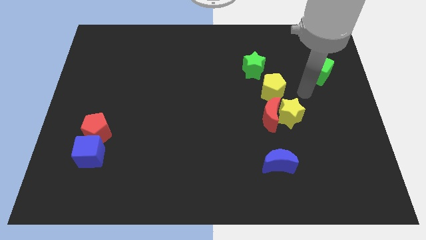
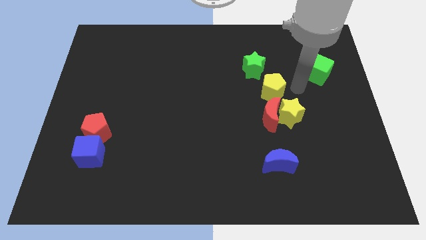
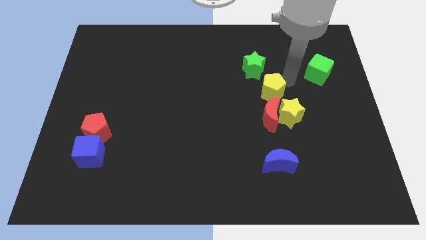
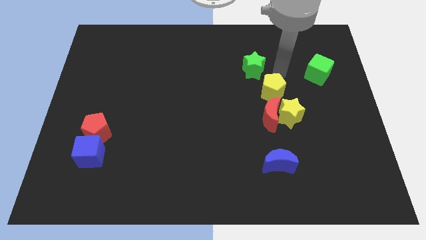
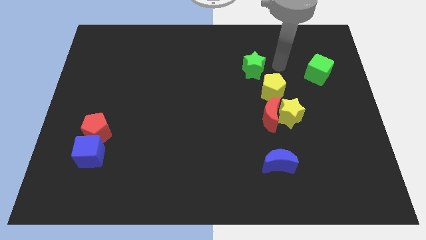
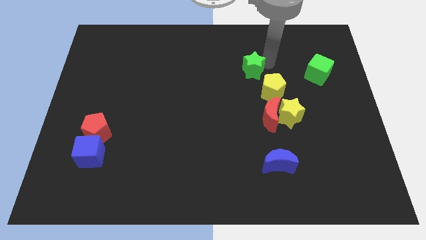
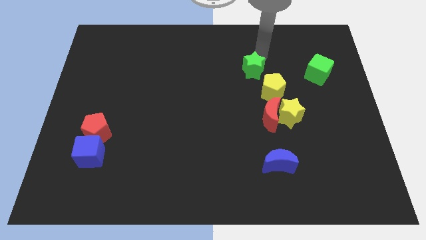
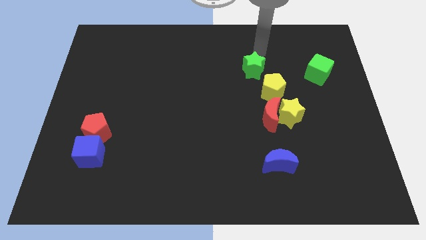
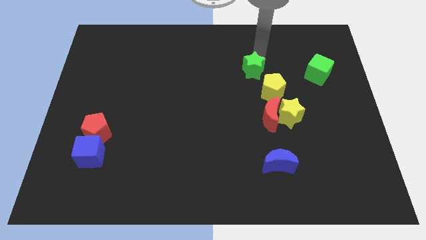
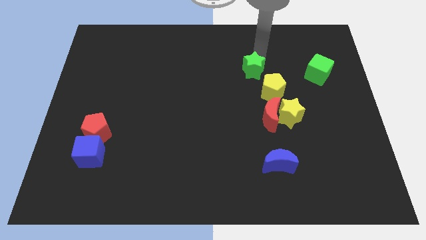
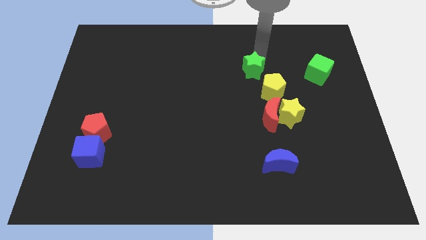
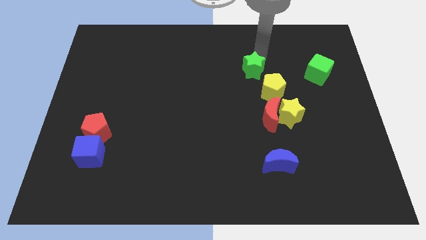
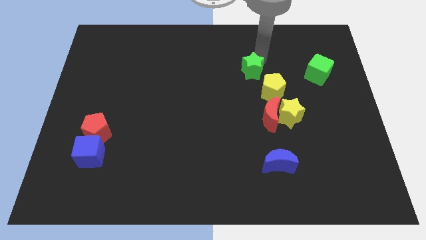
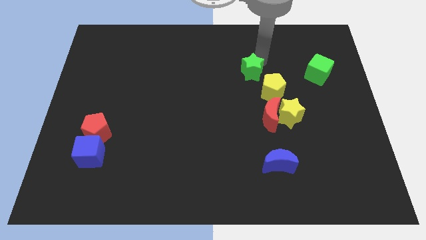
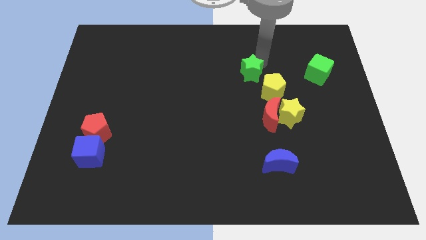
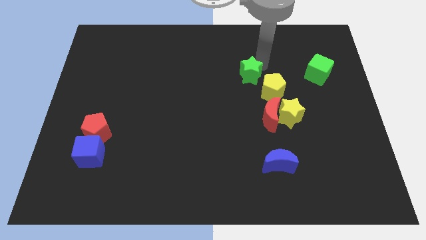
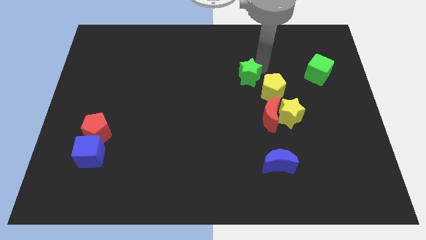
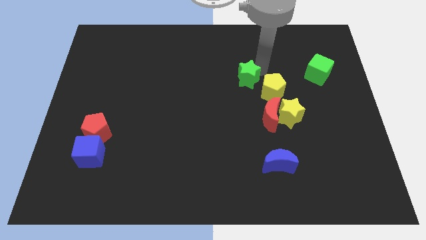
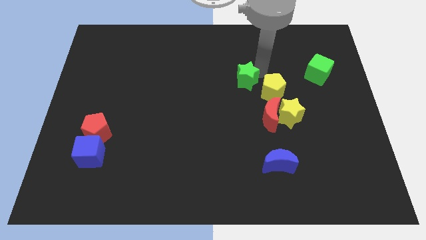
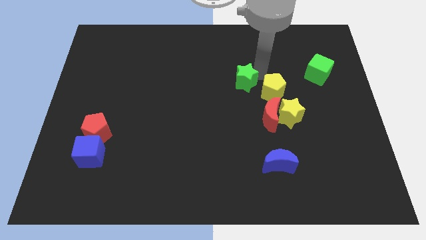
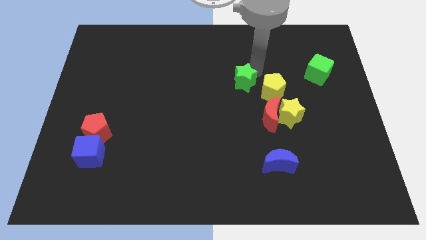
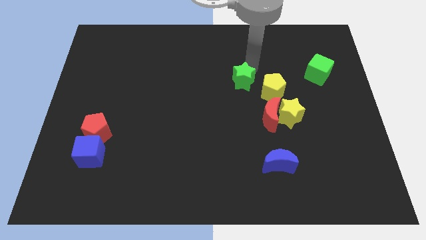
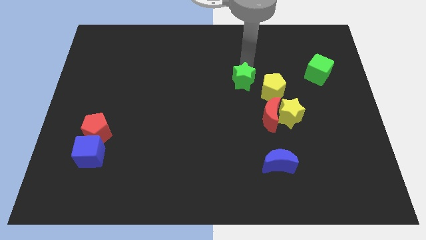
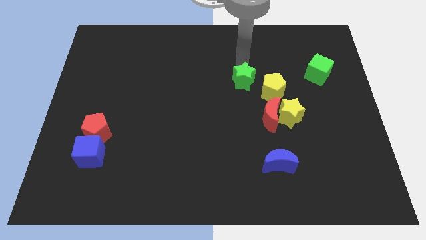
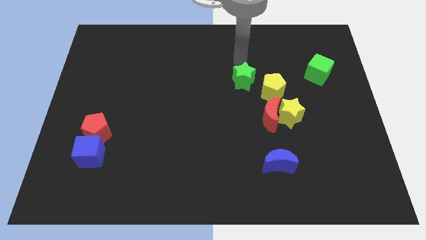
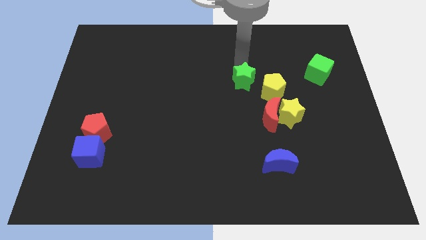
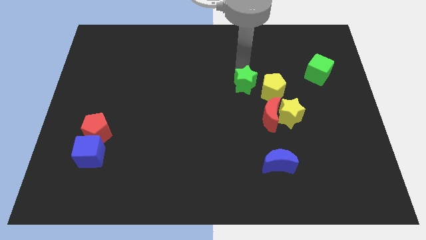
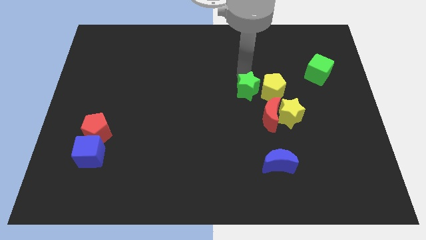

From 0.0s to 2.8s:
move the green star somewhat downwards

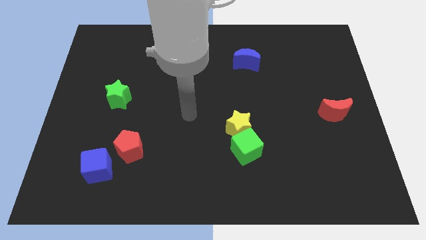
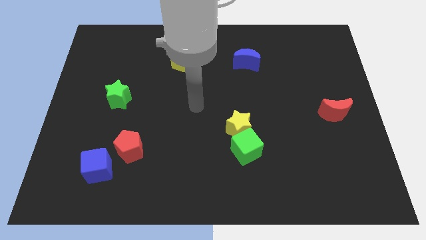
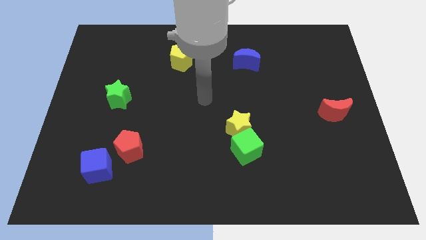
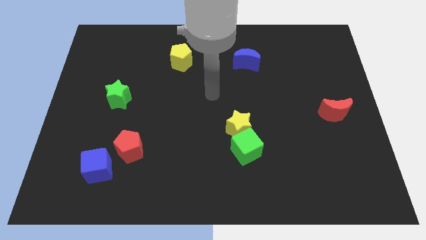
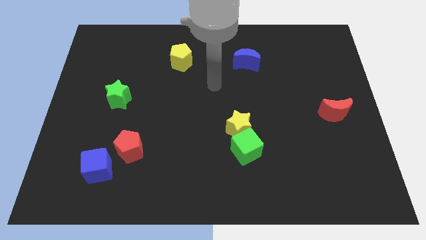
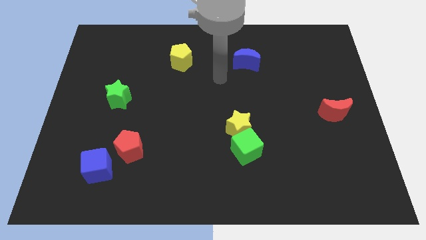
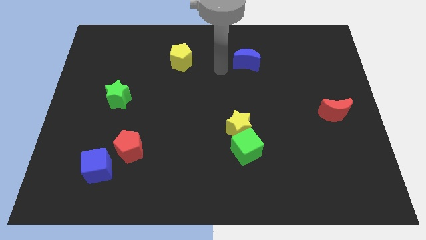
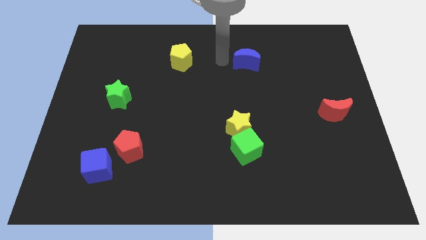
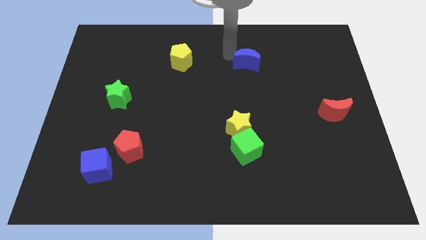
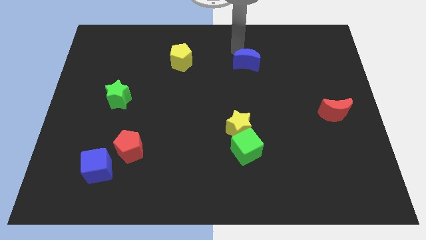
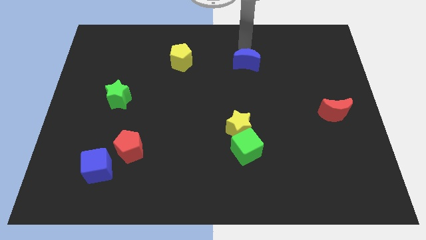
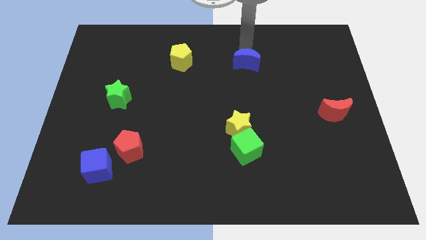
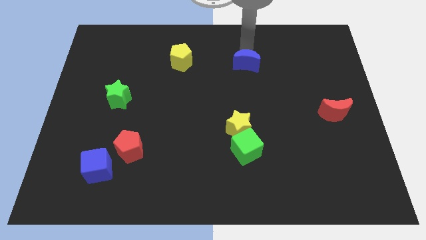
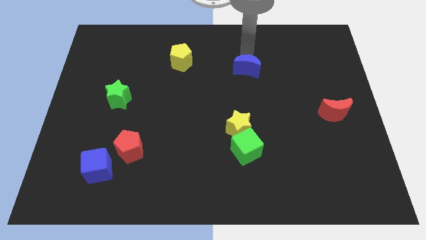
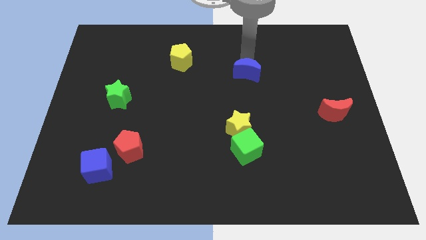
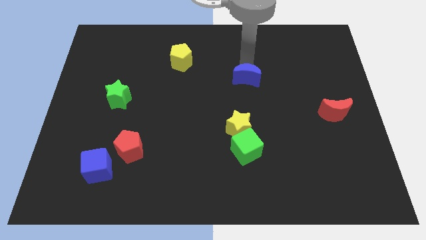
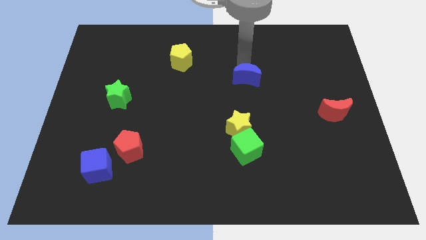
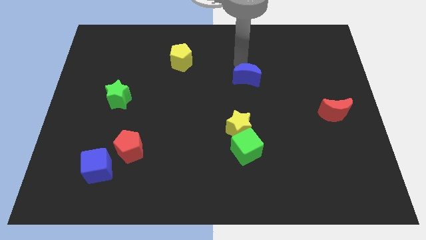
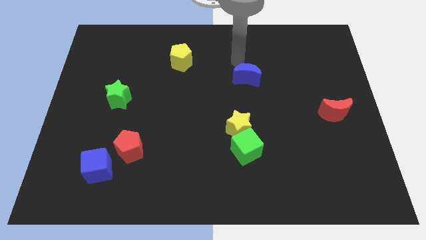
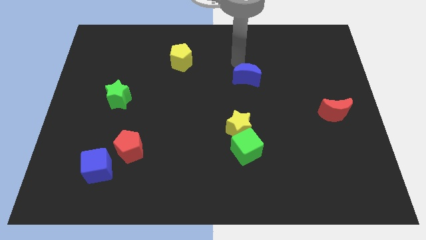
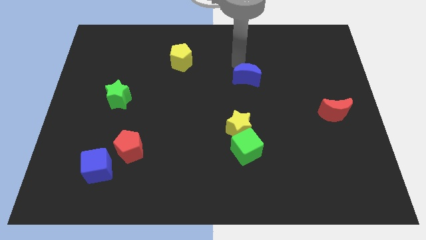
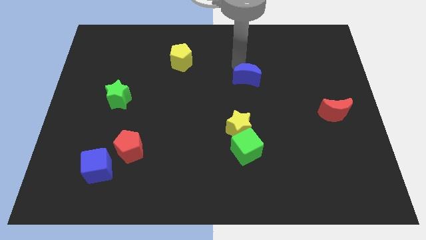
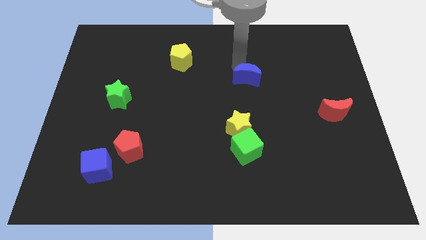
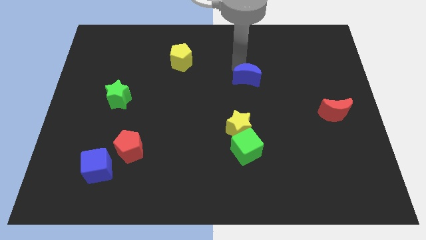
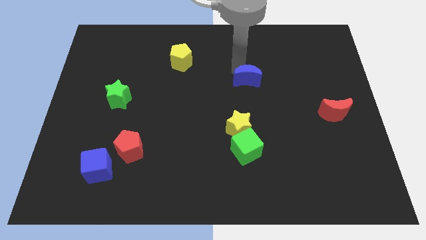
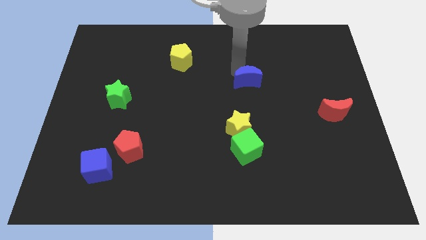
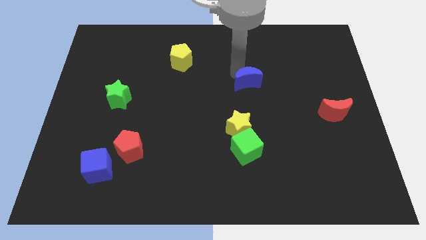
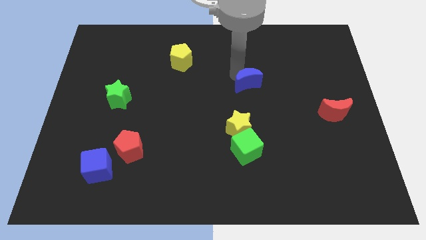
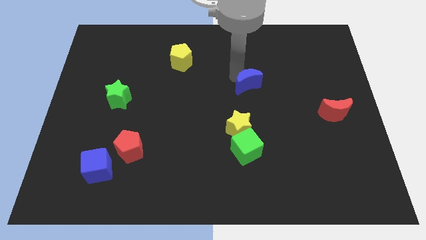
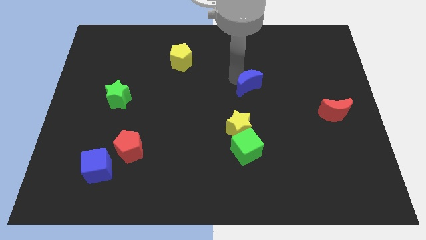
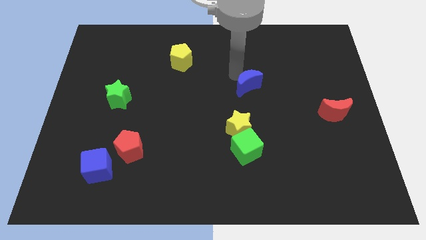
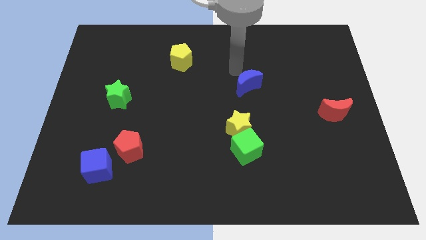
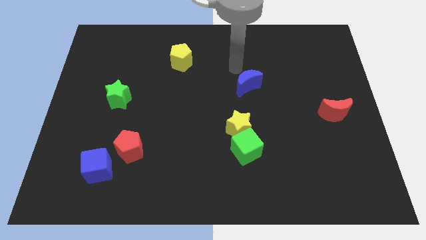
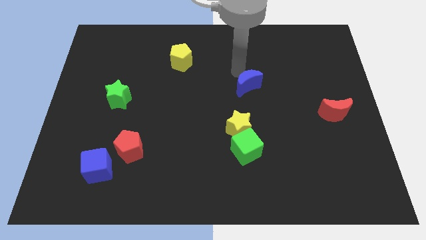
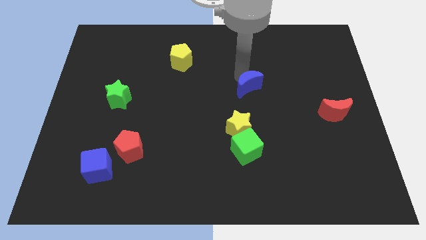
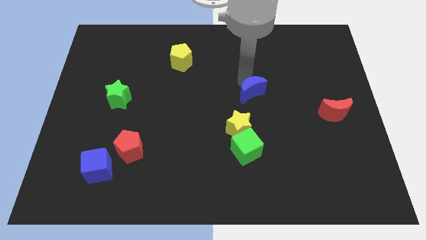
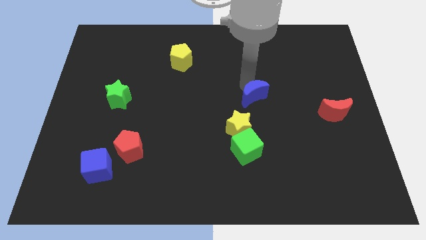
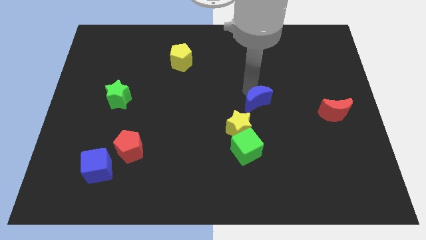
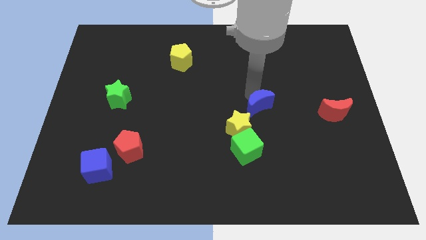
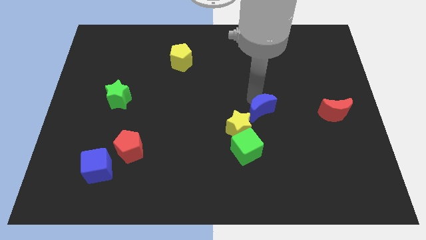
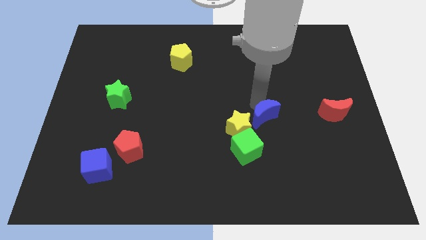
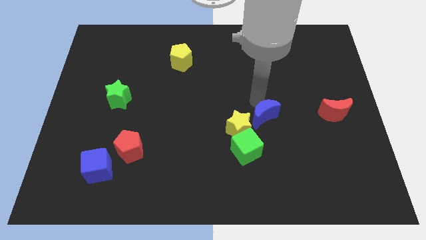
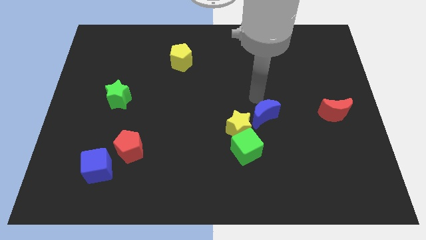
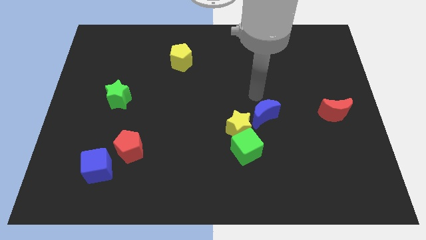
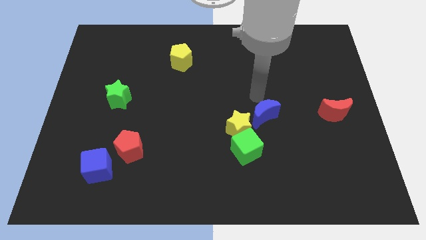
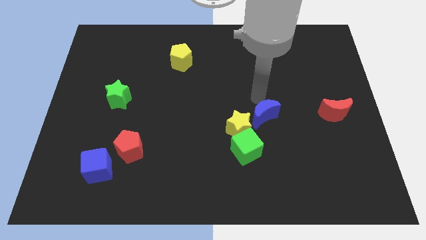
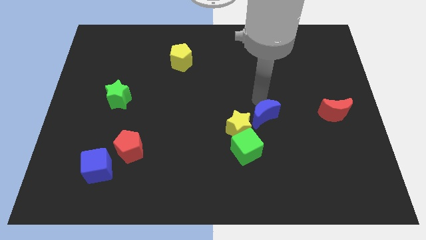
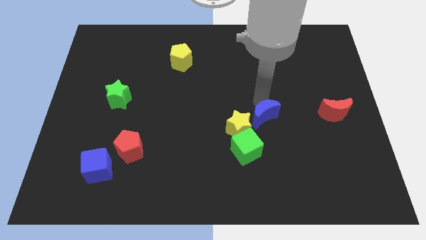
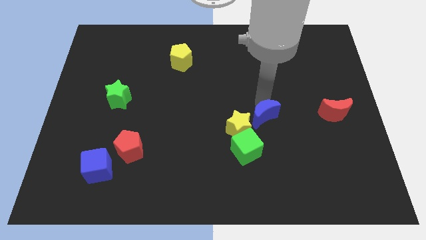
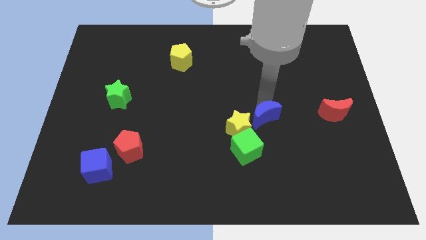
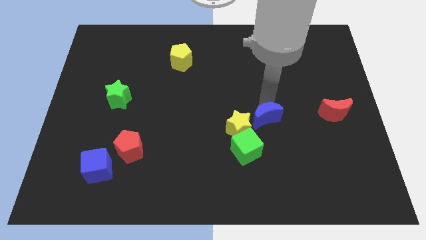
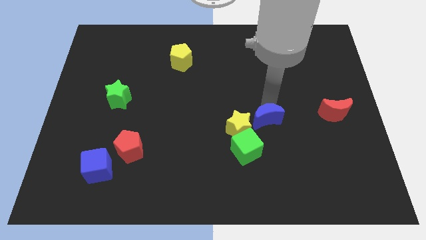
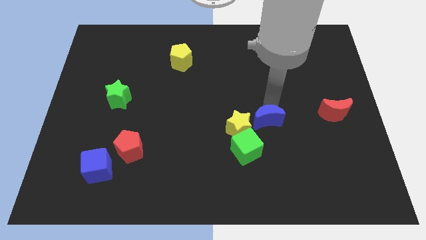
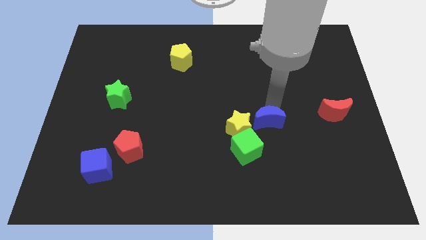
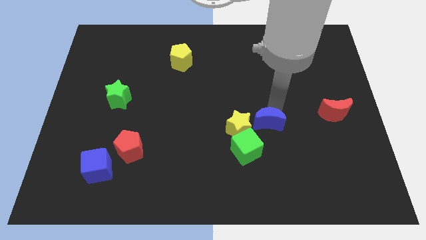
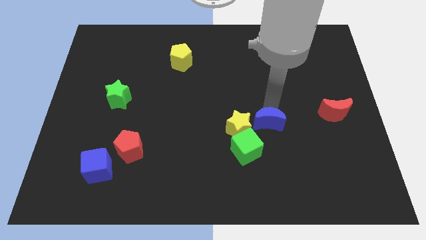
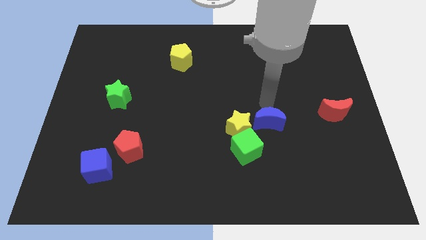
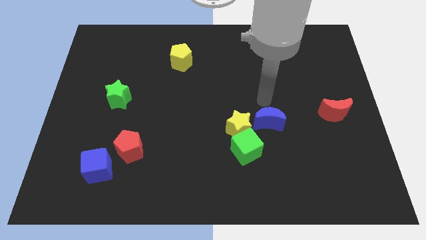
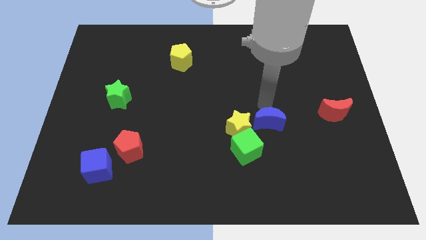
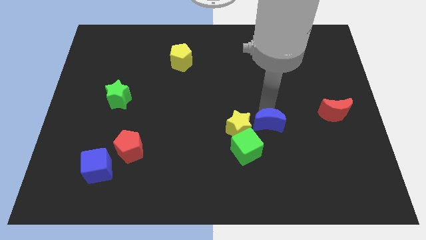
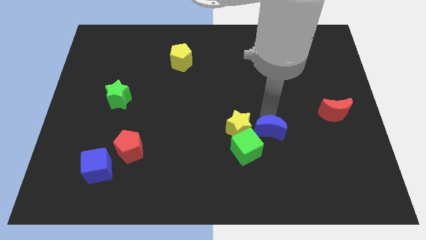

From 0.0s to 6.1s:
push the blue moon downwards
